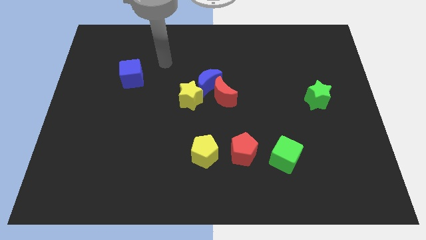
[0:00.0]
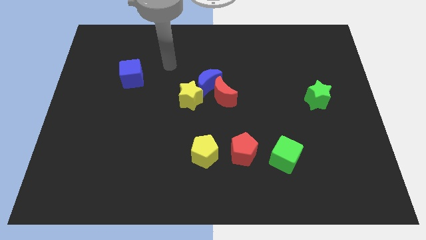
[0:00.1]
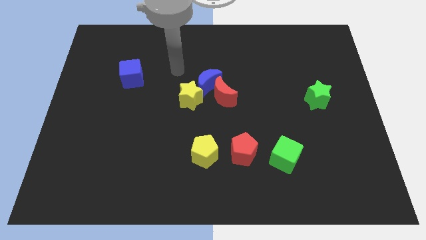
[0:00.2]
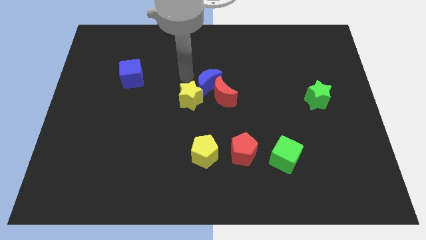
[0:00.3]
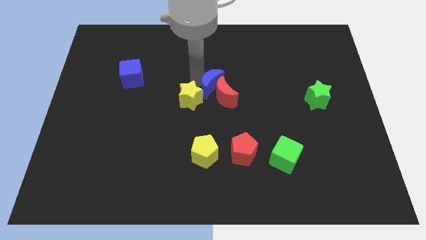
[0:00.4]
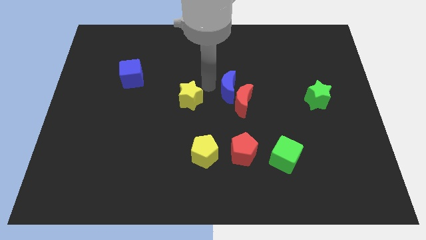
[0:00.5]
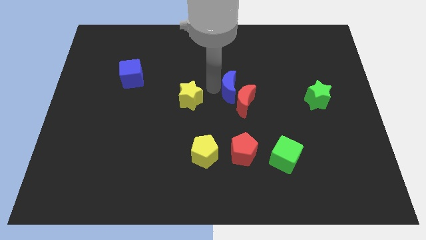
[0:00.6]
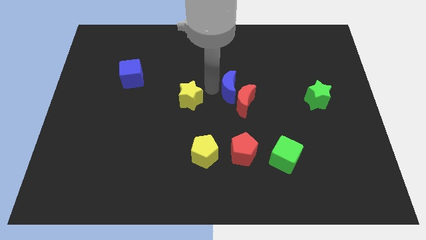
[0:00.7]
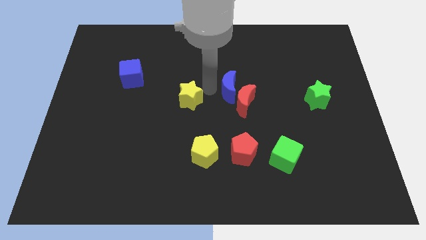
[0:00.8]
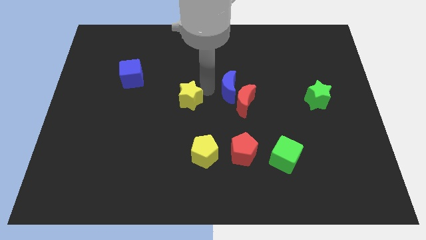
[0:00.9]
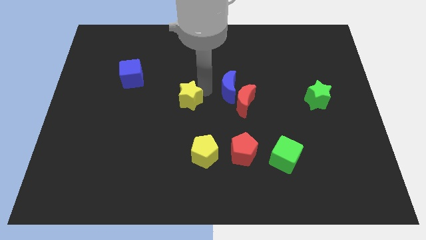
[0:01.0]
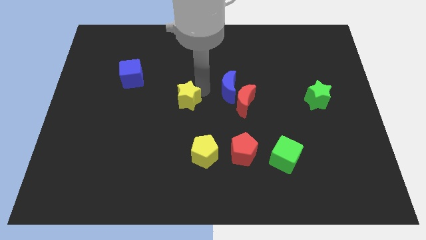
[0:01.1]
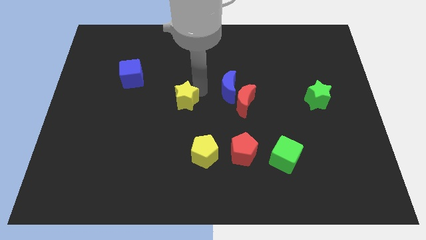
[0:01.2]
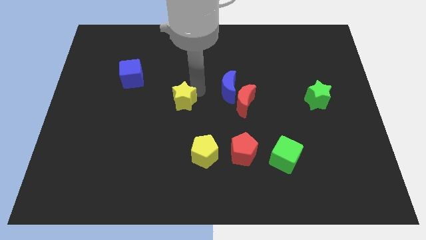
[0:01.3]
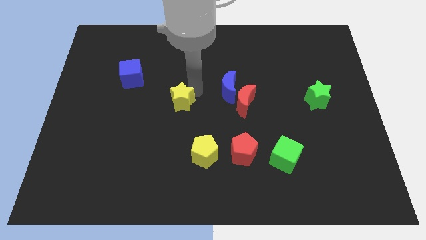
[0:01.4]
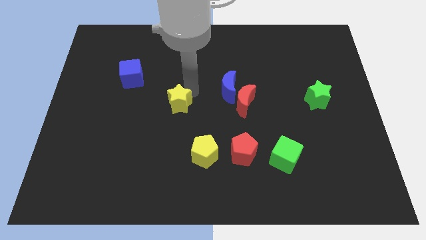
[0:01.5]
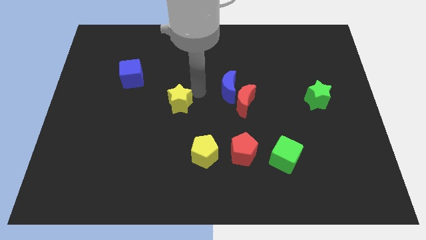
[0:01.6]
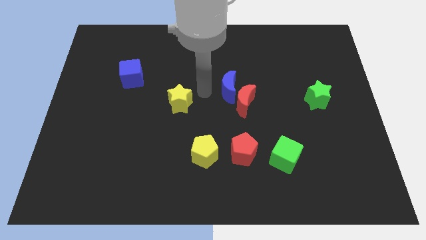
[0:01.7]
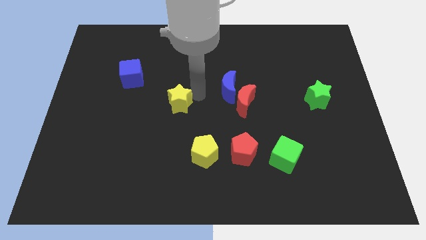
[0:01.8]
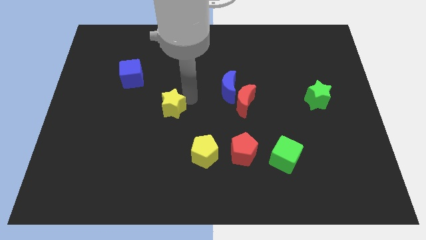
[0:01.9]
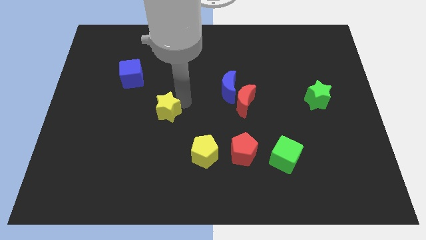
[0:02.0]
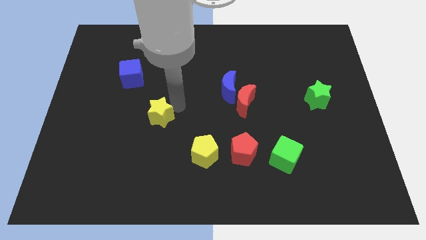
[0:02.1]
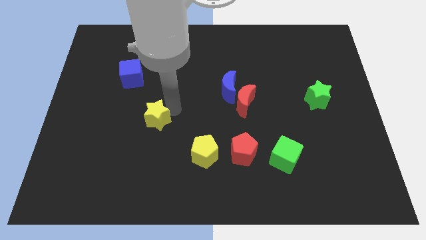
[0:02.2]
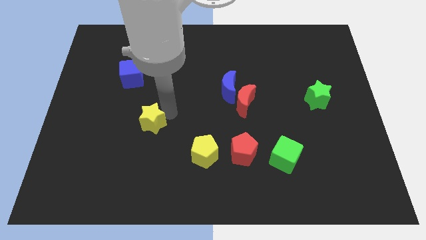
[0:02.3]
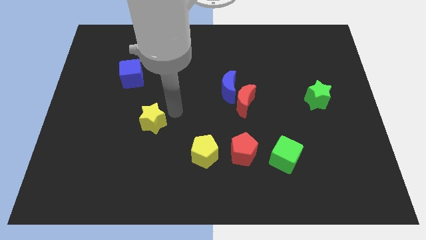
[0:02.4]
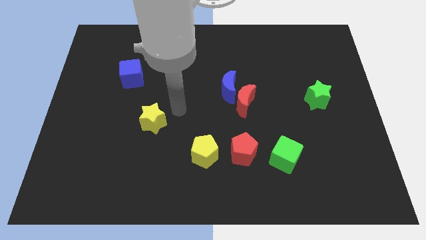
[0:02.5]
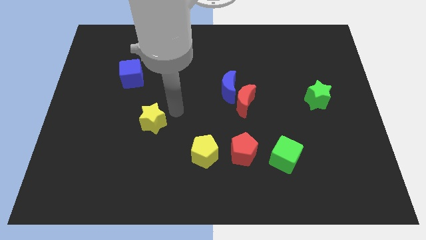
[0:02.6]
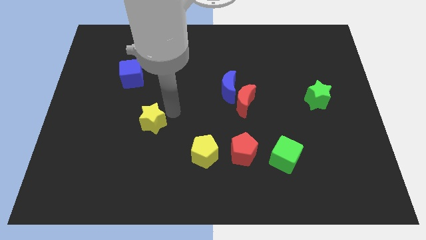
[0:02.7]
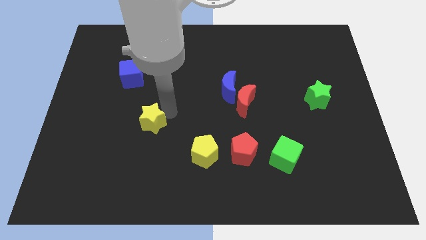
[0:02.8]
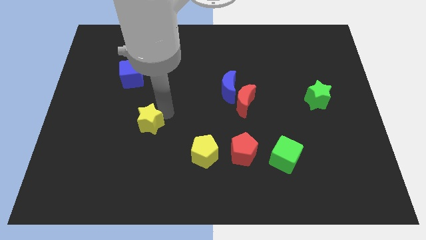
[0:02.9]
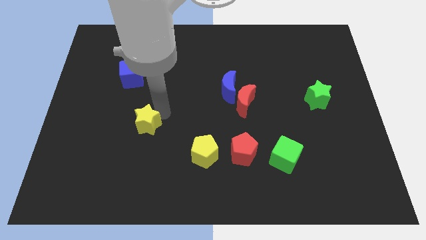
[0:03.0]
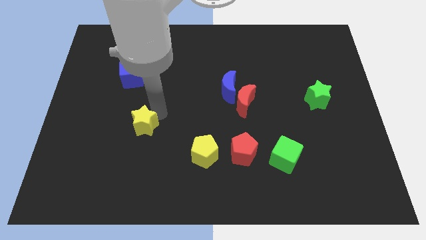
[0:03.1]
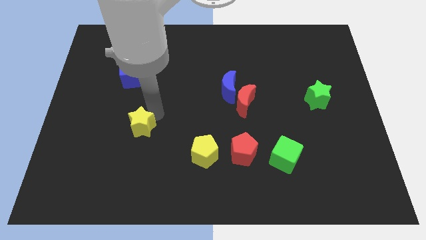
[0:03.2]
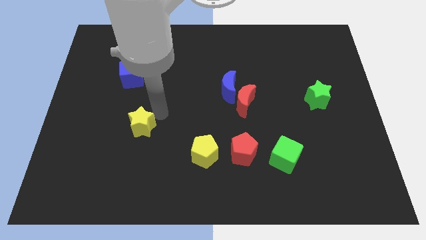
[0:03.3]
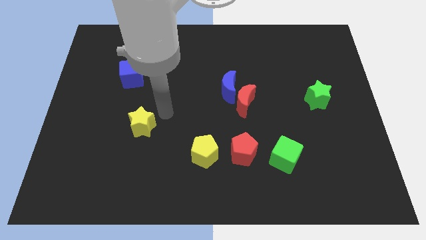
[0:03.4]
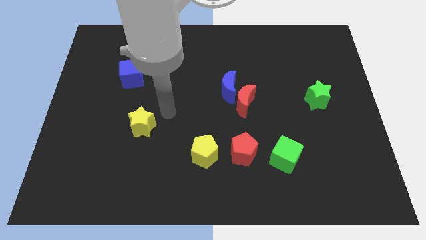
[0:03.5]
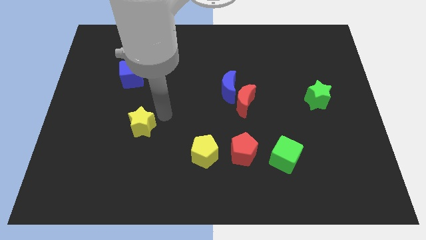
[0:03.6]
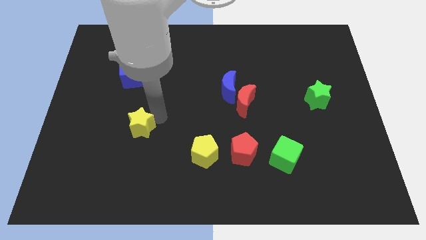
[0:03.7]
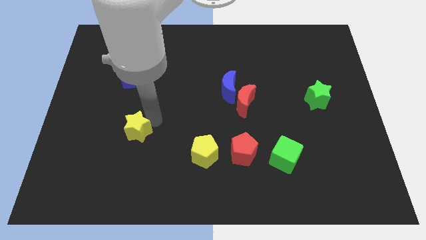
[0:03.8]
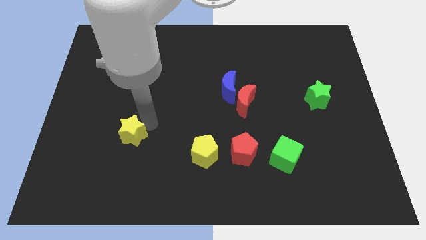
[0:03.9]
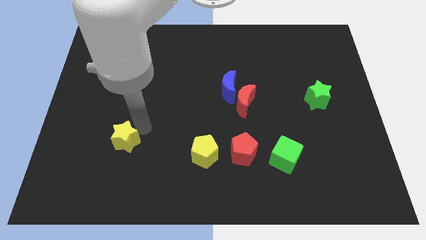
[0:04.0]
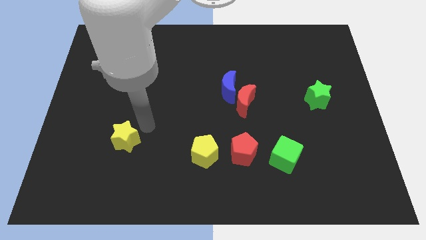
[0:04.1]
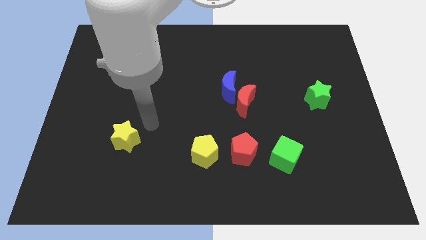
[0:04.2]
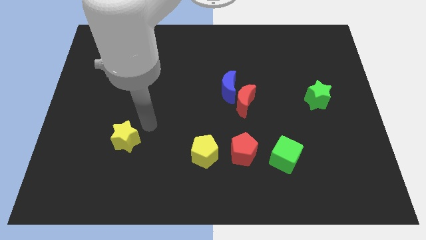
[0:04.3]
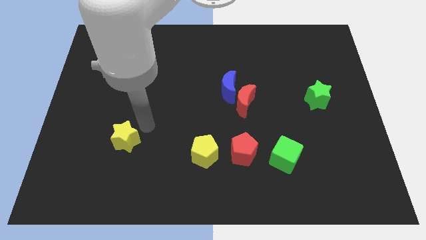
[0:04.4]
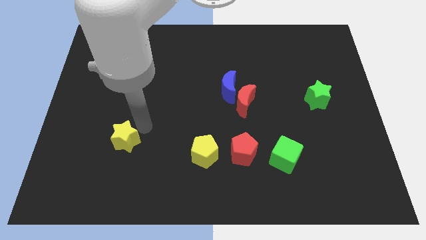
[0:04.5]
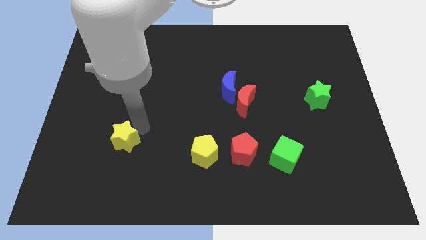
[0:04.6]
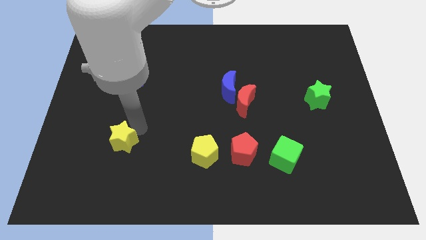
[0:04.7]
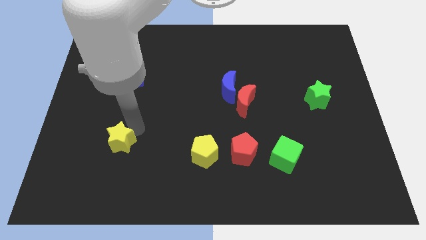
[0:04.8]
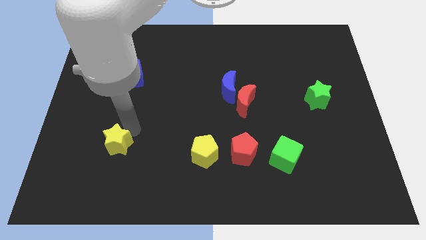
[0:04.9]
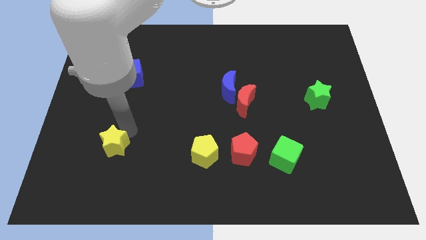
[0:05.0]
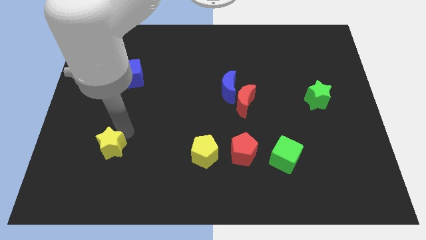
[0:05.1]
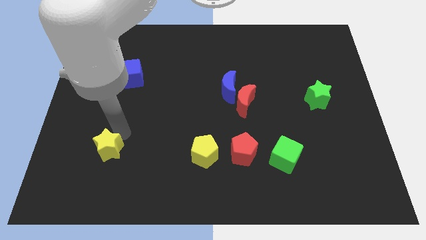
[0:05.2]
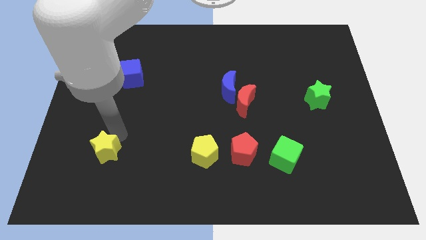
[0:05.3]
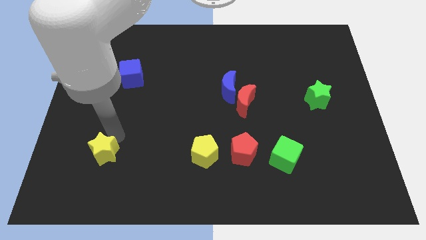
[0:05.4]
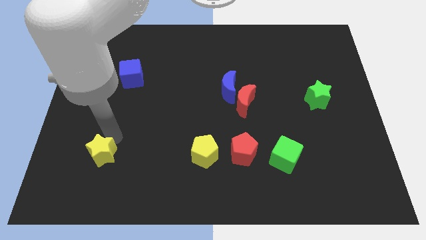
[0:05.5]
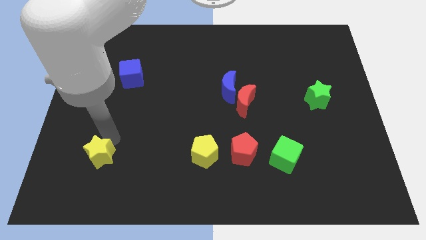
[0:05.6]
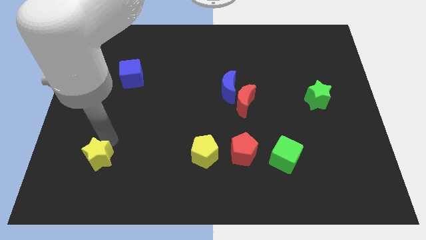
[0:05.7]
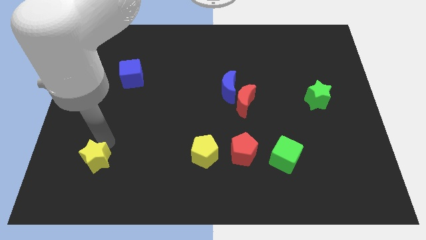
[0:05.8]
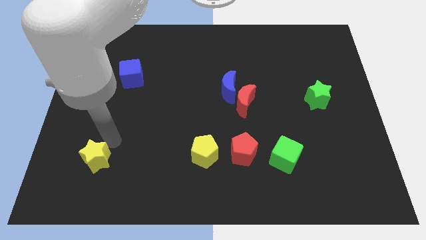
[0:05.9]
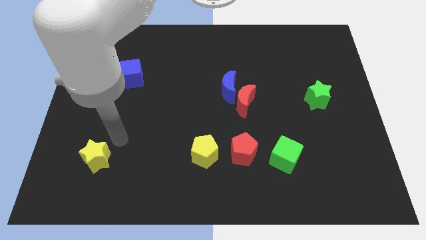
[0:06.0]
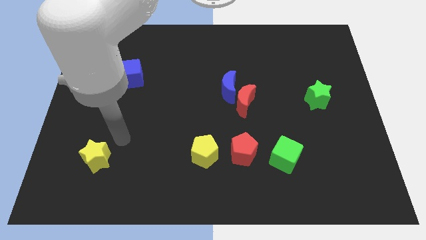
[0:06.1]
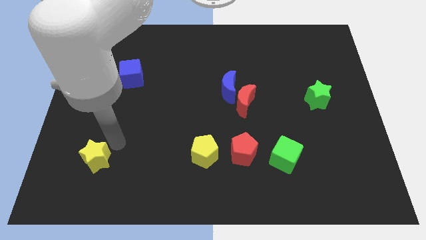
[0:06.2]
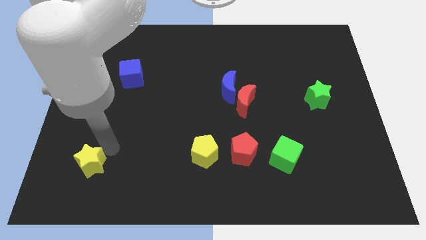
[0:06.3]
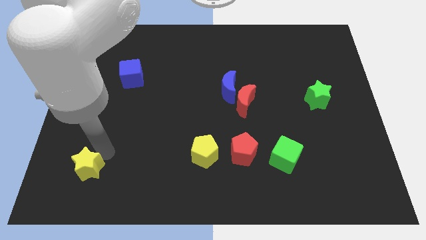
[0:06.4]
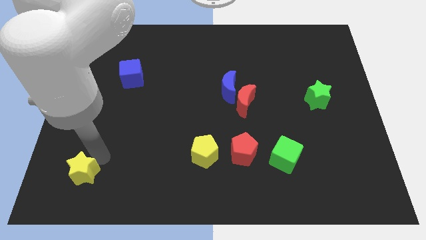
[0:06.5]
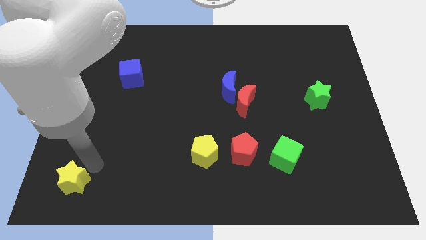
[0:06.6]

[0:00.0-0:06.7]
push the yellow star to the bottom left corner
